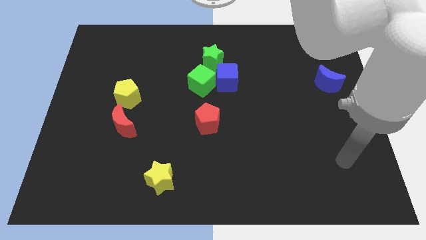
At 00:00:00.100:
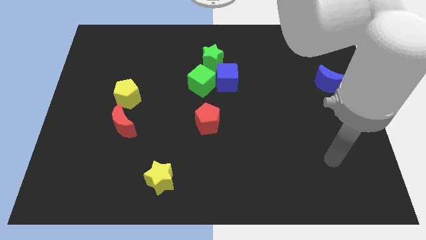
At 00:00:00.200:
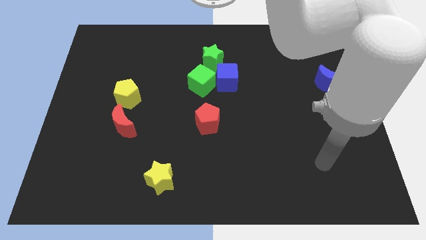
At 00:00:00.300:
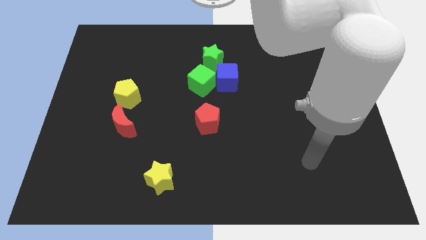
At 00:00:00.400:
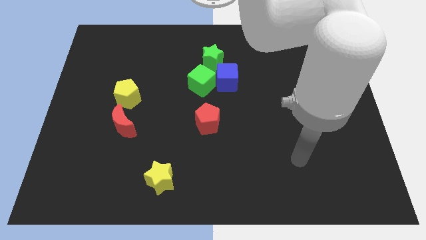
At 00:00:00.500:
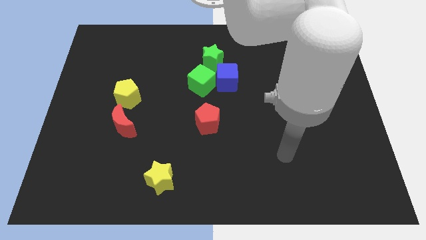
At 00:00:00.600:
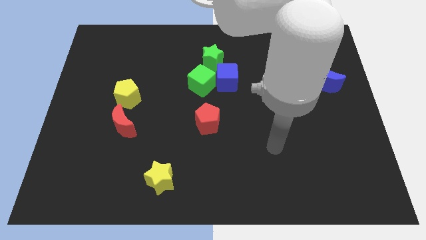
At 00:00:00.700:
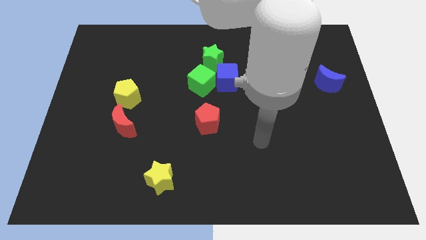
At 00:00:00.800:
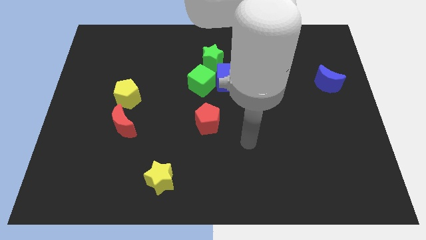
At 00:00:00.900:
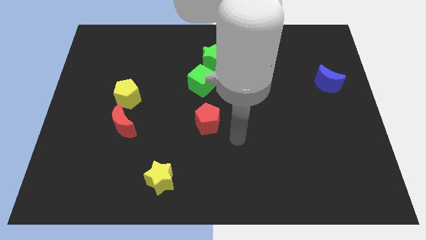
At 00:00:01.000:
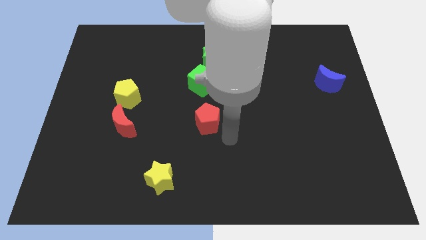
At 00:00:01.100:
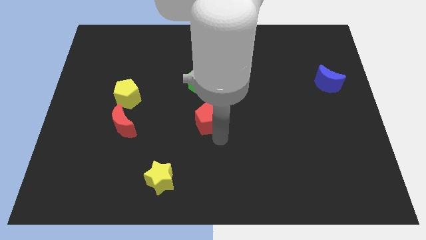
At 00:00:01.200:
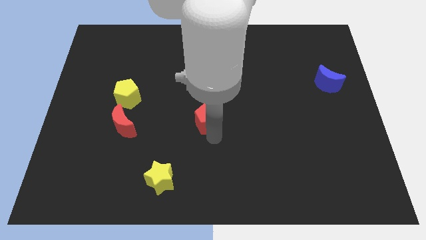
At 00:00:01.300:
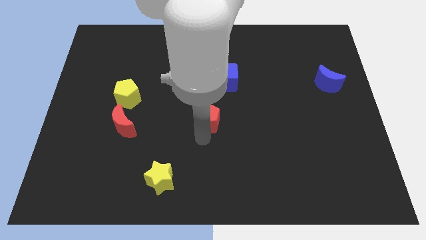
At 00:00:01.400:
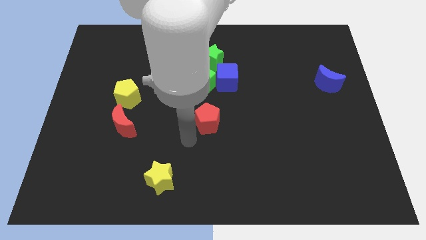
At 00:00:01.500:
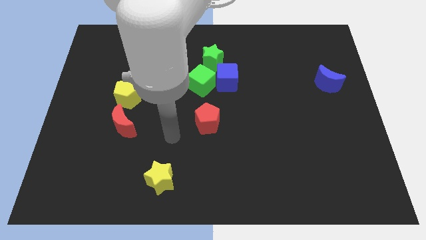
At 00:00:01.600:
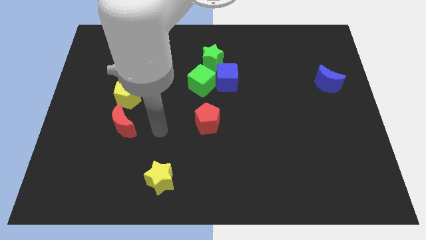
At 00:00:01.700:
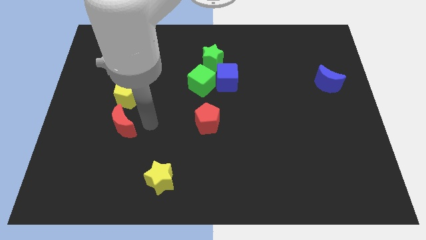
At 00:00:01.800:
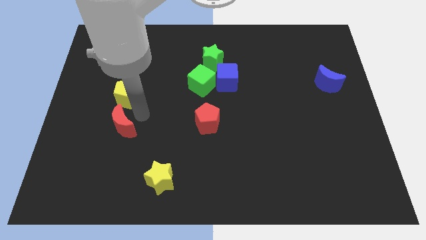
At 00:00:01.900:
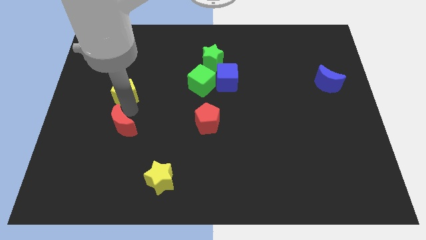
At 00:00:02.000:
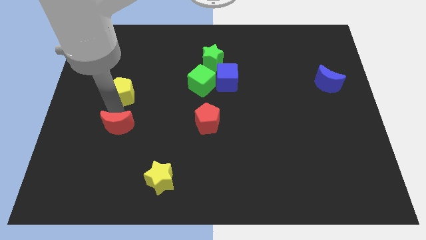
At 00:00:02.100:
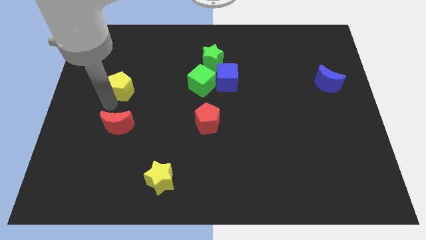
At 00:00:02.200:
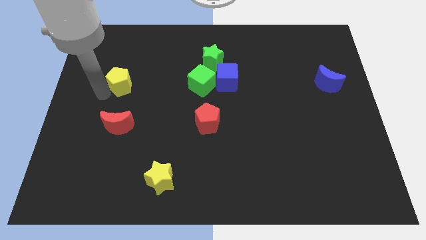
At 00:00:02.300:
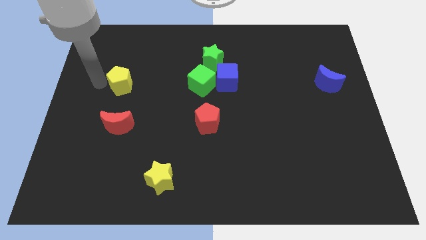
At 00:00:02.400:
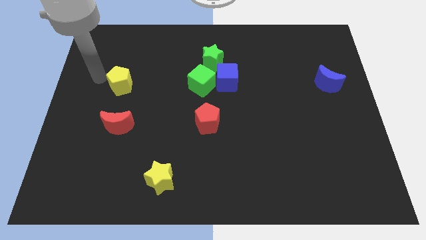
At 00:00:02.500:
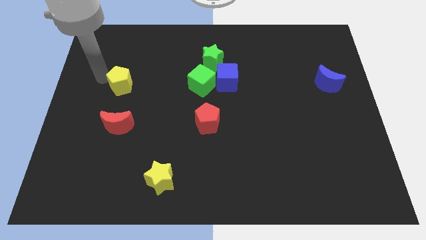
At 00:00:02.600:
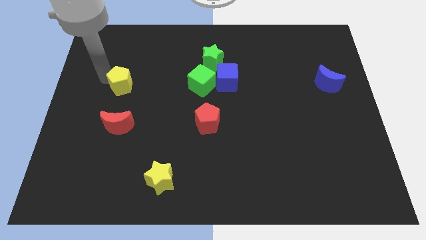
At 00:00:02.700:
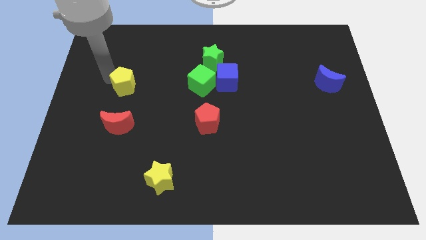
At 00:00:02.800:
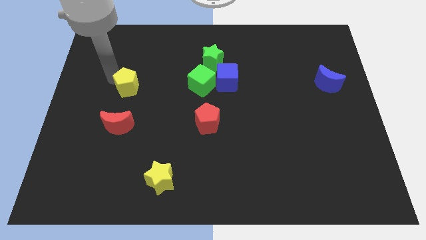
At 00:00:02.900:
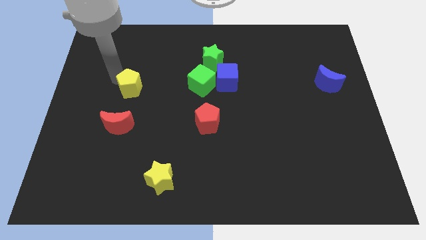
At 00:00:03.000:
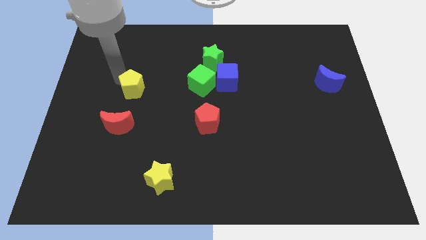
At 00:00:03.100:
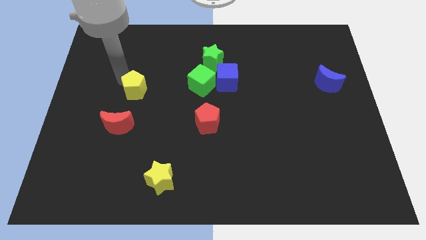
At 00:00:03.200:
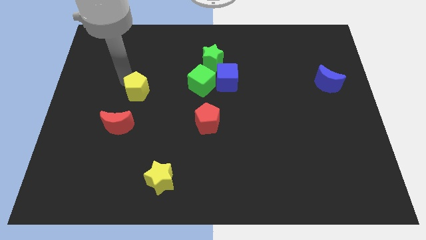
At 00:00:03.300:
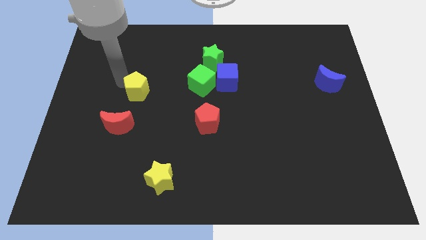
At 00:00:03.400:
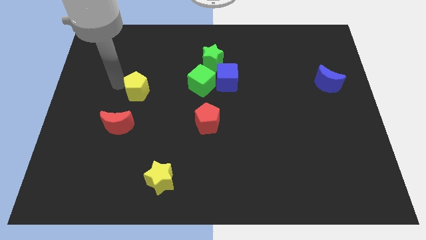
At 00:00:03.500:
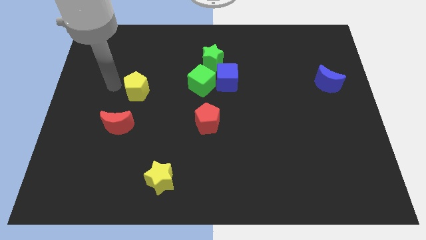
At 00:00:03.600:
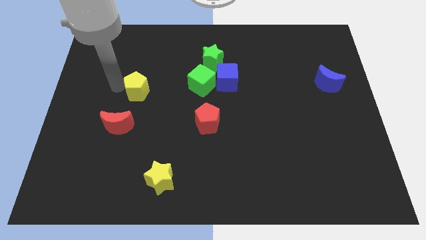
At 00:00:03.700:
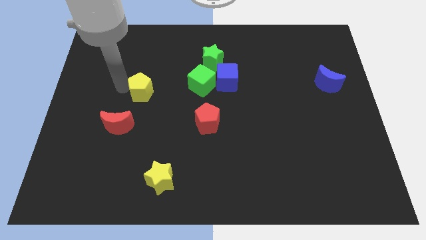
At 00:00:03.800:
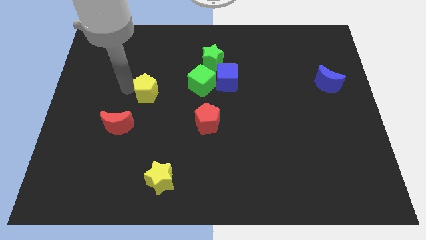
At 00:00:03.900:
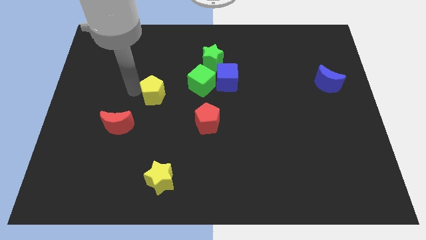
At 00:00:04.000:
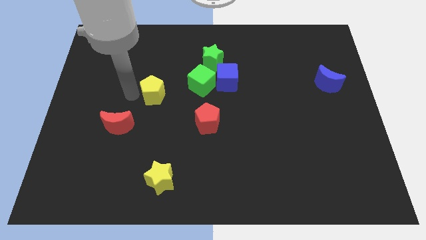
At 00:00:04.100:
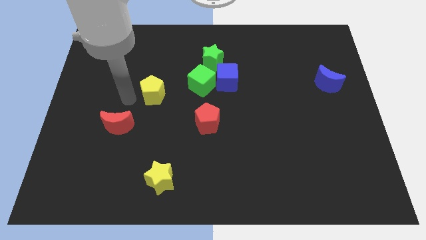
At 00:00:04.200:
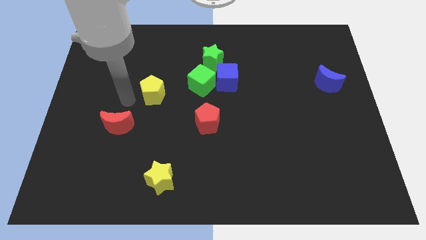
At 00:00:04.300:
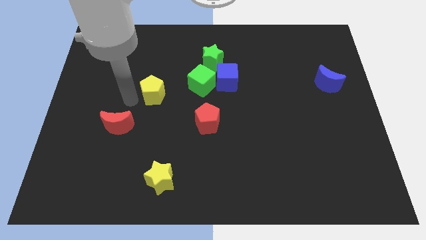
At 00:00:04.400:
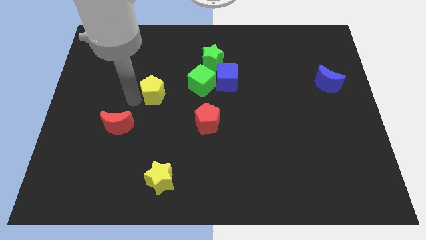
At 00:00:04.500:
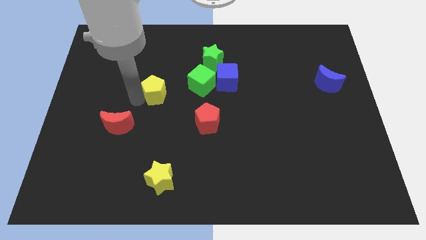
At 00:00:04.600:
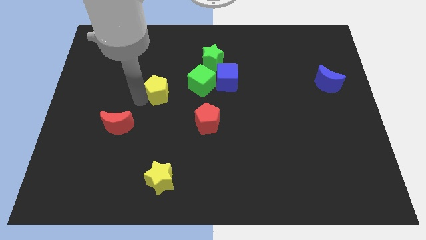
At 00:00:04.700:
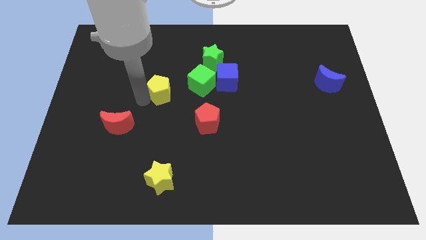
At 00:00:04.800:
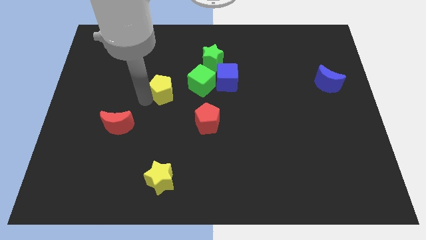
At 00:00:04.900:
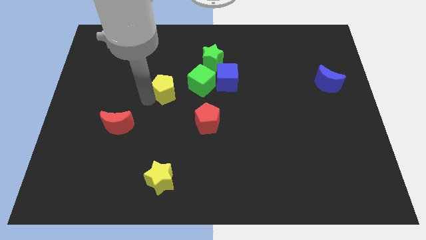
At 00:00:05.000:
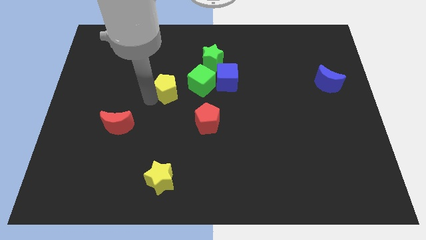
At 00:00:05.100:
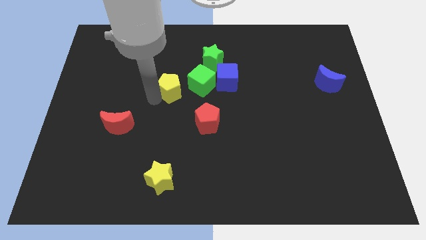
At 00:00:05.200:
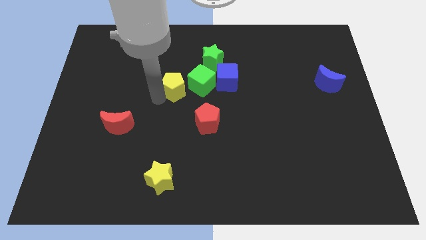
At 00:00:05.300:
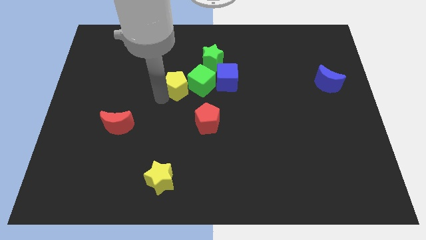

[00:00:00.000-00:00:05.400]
slide the yellow pentagon close to the green cube

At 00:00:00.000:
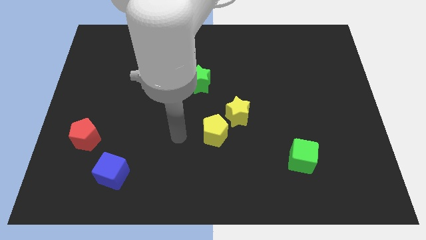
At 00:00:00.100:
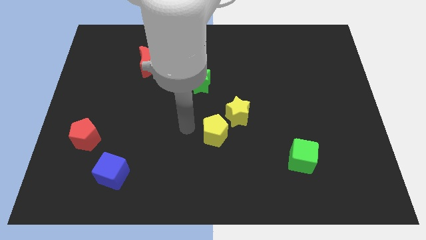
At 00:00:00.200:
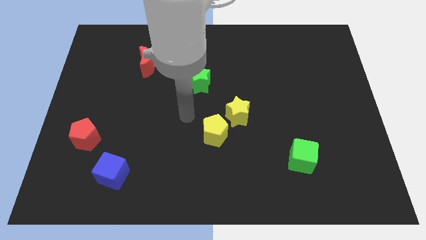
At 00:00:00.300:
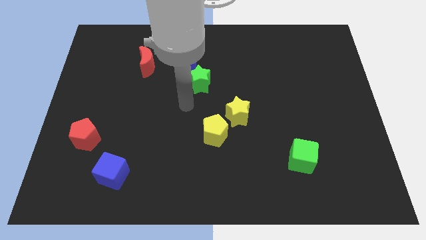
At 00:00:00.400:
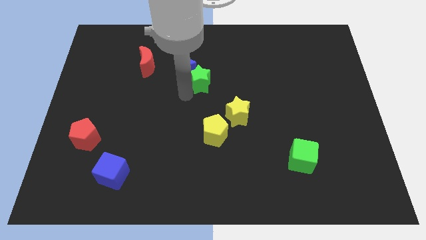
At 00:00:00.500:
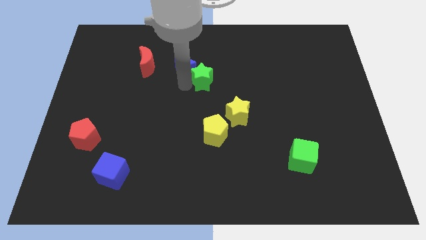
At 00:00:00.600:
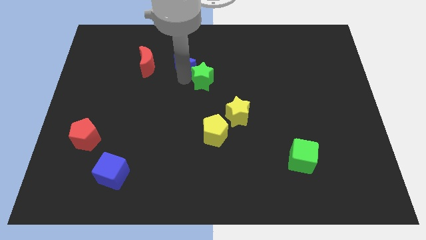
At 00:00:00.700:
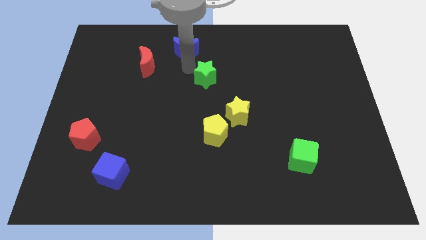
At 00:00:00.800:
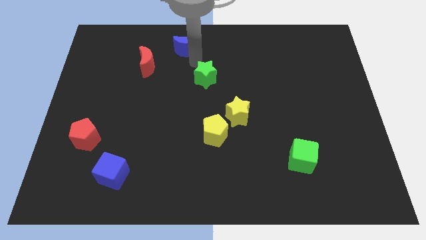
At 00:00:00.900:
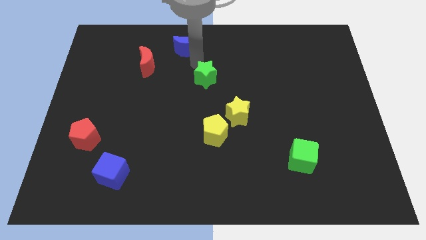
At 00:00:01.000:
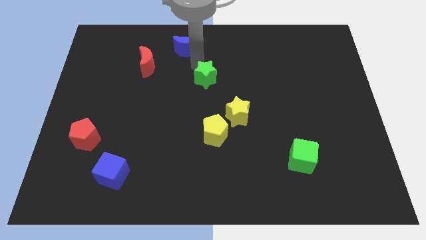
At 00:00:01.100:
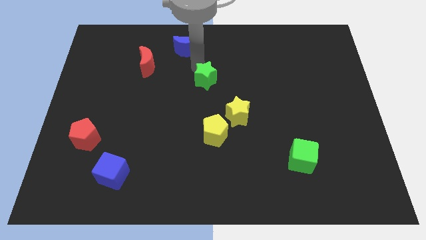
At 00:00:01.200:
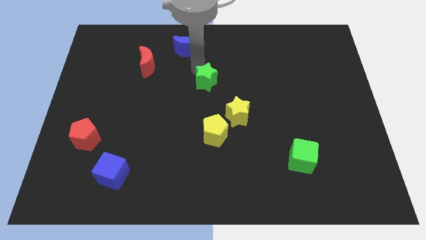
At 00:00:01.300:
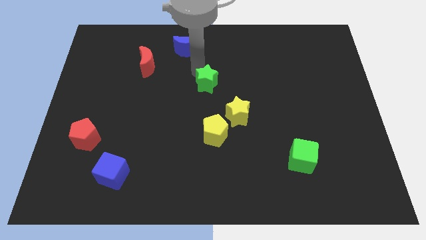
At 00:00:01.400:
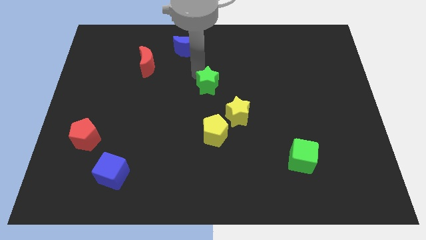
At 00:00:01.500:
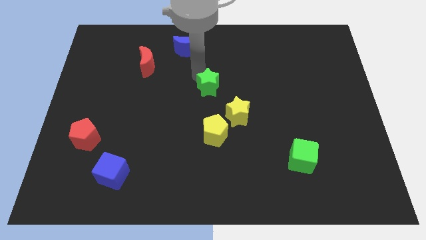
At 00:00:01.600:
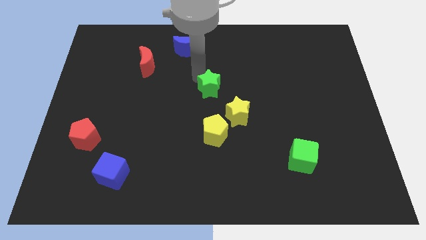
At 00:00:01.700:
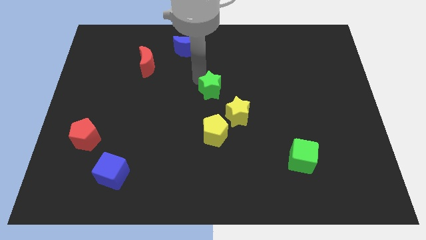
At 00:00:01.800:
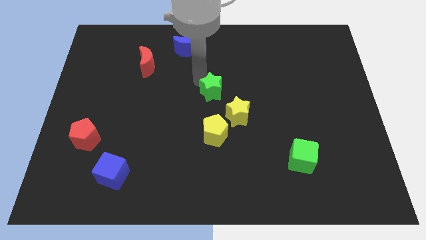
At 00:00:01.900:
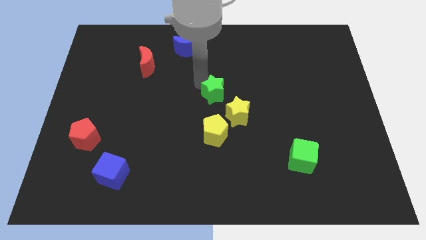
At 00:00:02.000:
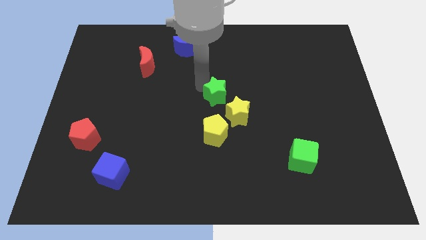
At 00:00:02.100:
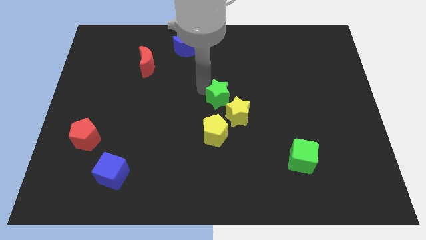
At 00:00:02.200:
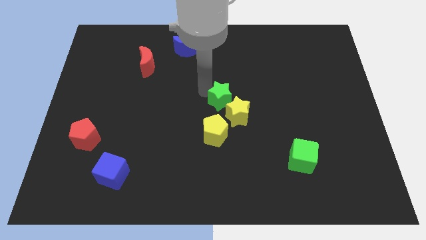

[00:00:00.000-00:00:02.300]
push the green star to the yellow star
